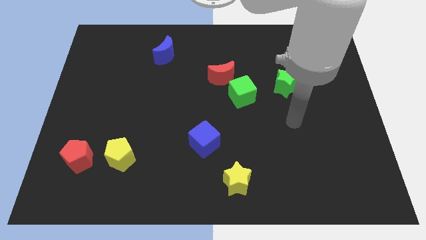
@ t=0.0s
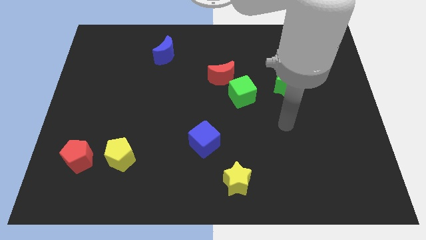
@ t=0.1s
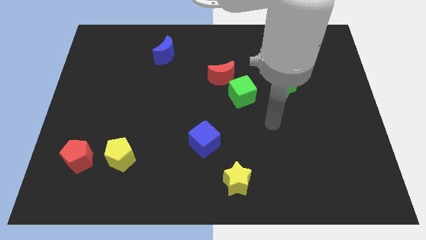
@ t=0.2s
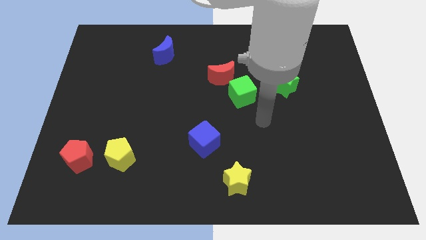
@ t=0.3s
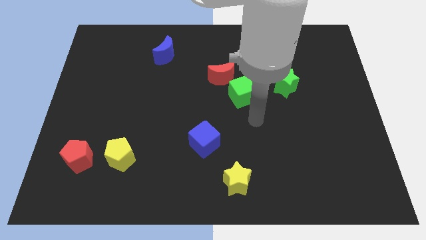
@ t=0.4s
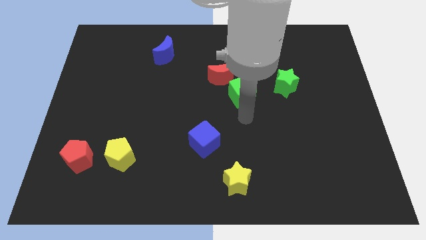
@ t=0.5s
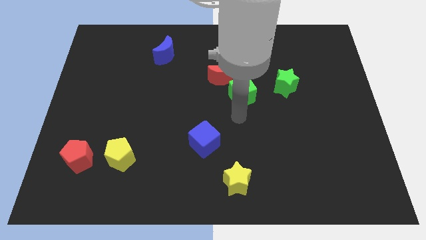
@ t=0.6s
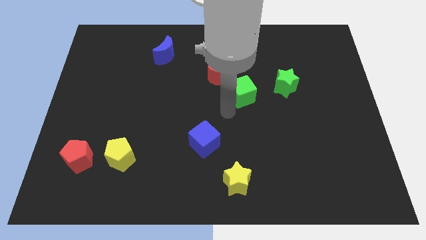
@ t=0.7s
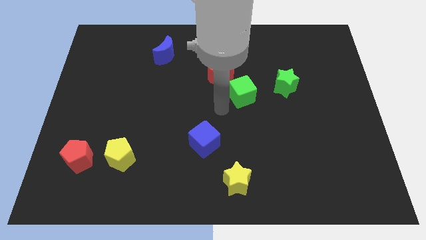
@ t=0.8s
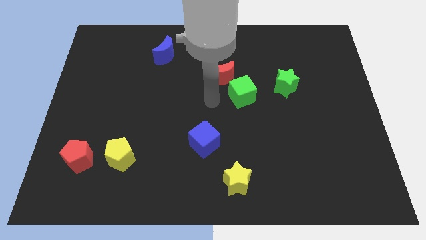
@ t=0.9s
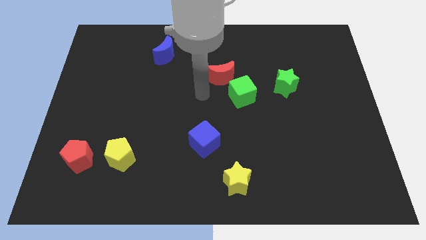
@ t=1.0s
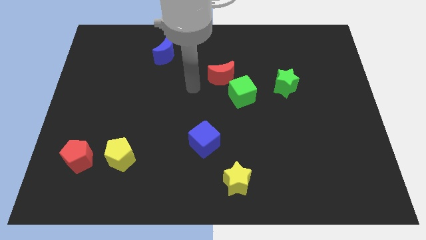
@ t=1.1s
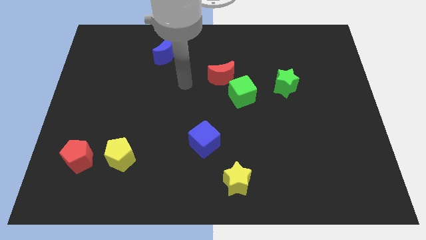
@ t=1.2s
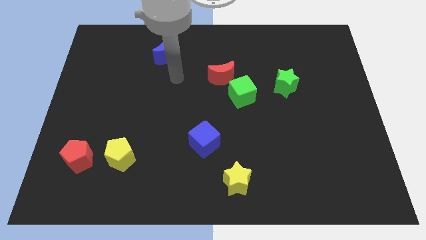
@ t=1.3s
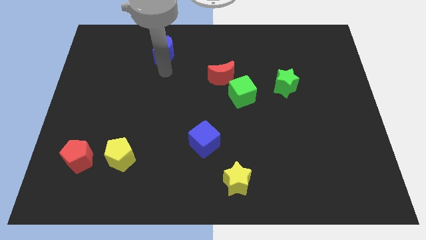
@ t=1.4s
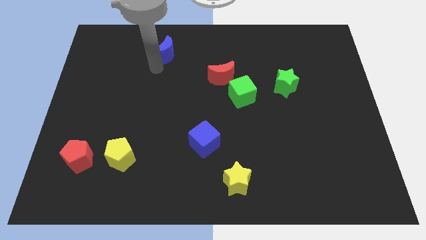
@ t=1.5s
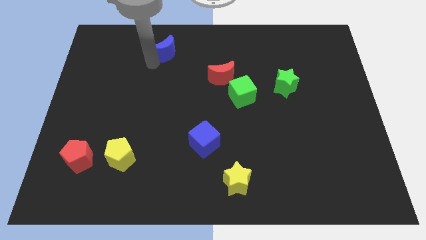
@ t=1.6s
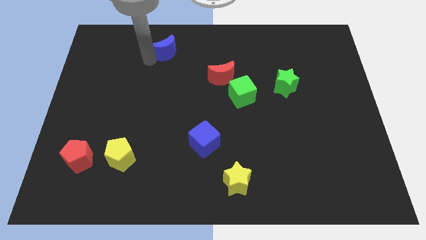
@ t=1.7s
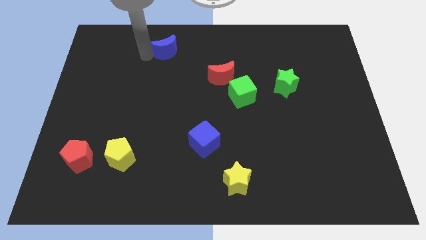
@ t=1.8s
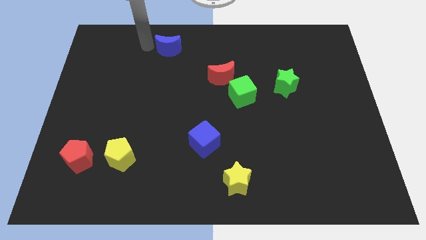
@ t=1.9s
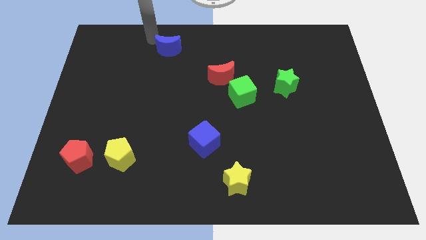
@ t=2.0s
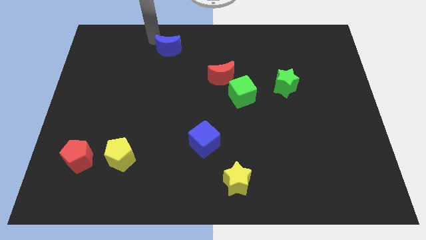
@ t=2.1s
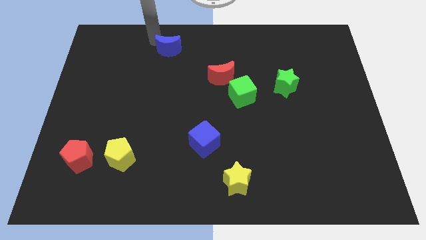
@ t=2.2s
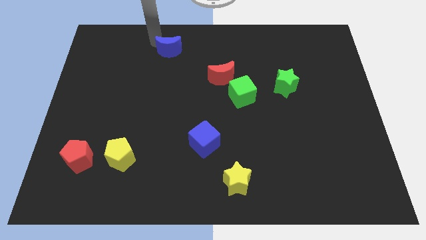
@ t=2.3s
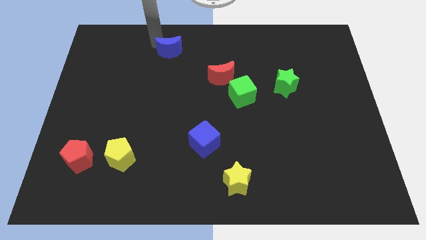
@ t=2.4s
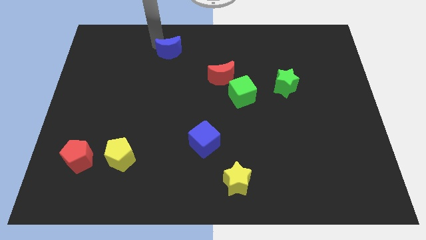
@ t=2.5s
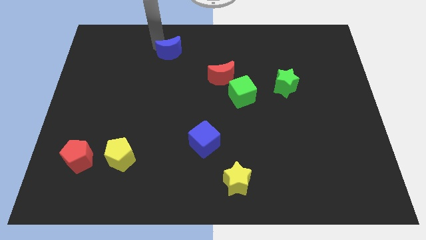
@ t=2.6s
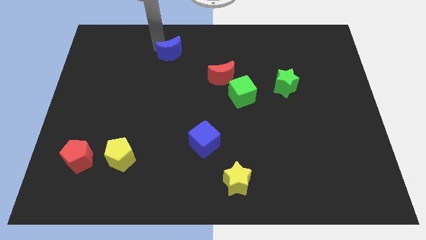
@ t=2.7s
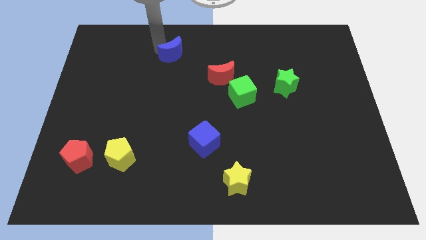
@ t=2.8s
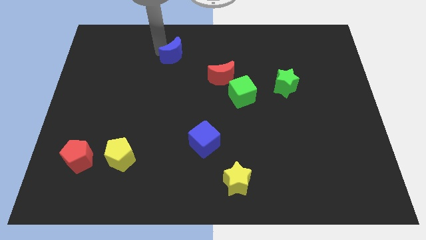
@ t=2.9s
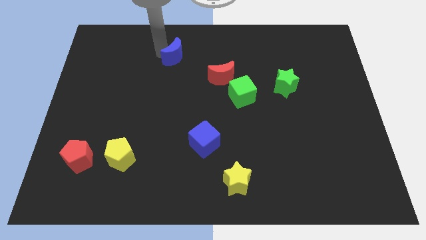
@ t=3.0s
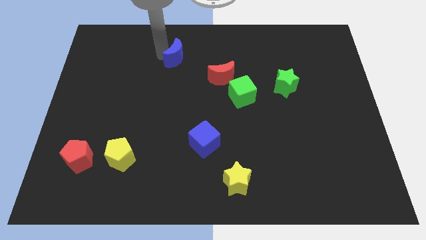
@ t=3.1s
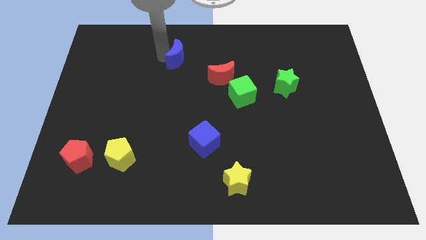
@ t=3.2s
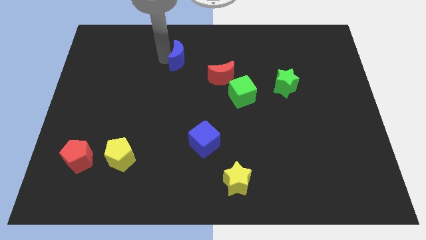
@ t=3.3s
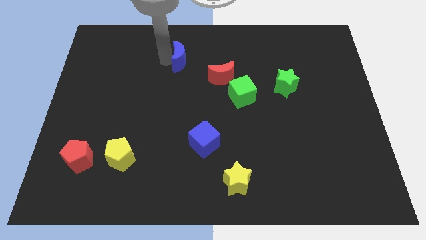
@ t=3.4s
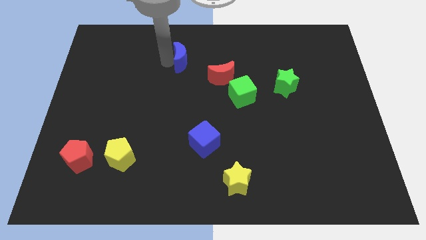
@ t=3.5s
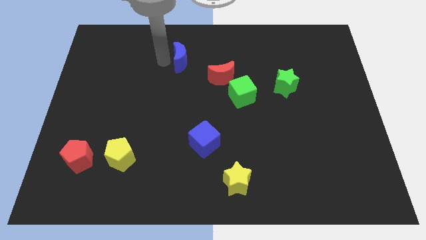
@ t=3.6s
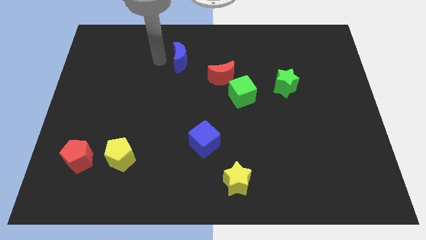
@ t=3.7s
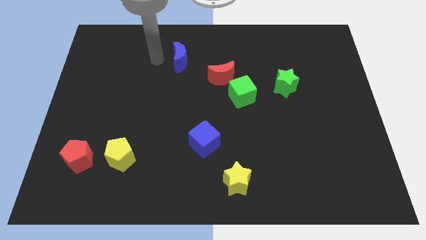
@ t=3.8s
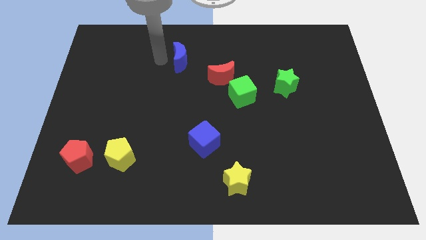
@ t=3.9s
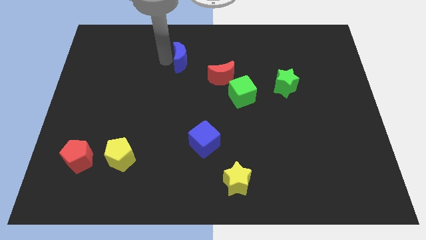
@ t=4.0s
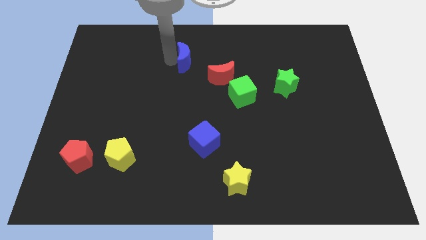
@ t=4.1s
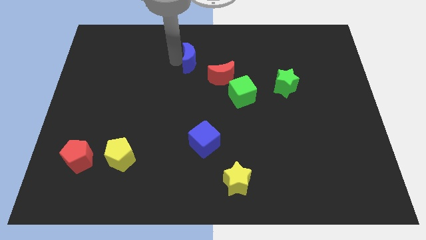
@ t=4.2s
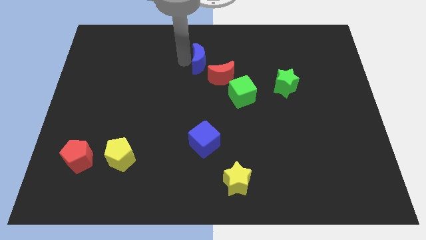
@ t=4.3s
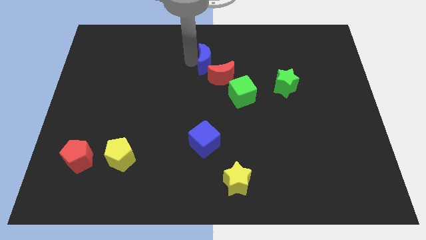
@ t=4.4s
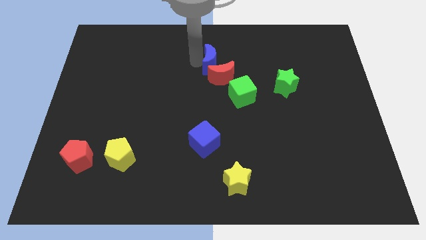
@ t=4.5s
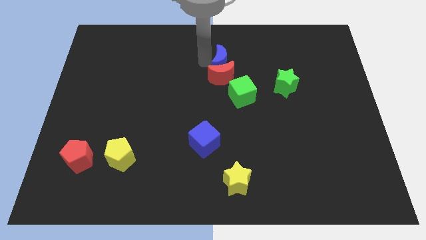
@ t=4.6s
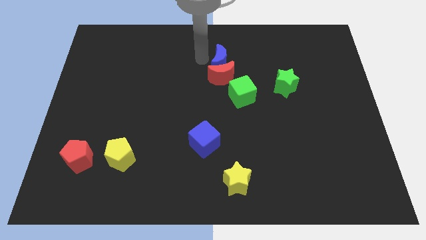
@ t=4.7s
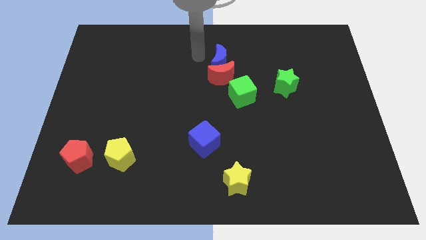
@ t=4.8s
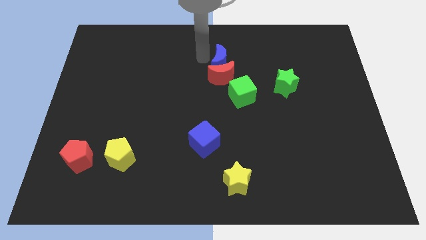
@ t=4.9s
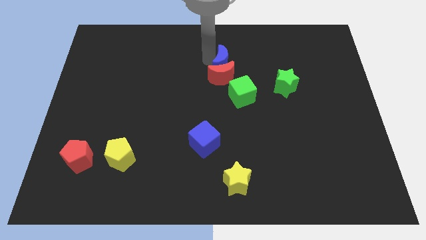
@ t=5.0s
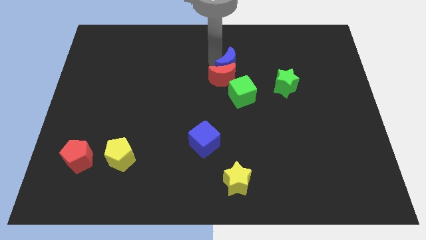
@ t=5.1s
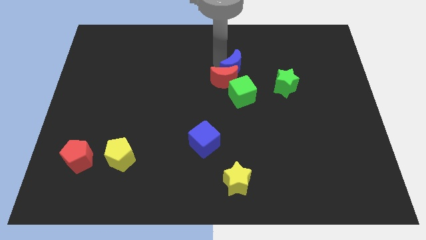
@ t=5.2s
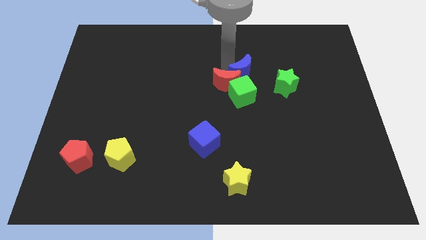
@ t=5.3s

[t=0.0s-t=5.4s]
slide the blue moon to the top right side of the green cube
